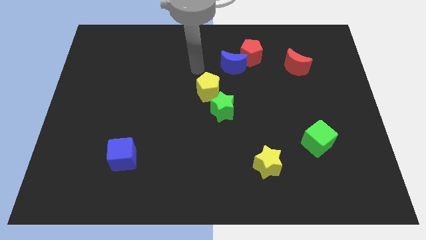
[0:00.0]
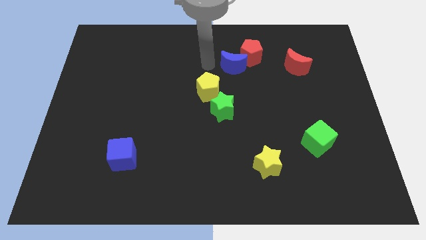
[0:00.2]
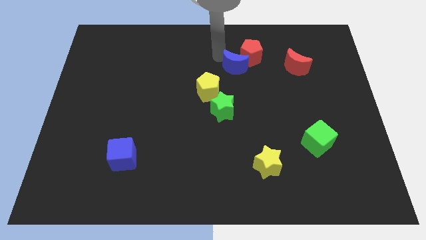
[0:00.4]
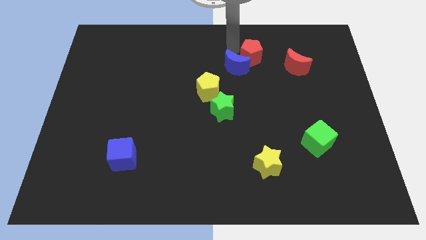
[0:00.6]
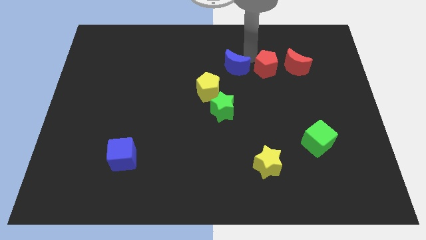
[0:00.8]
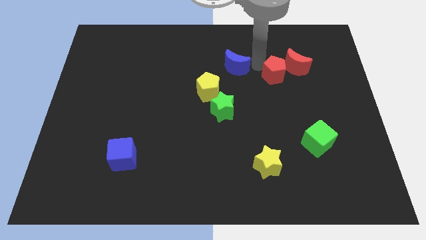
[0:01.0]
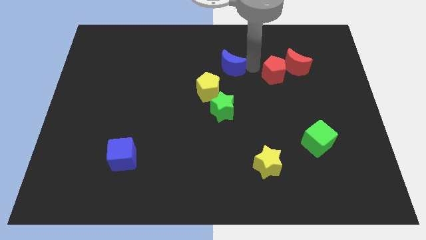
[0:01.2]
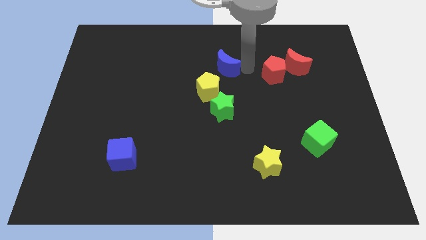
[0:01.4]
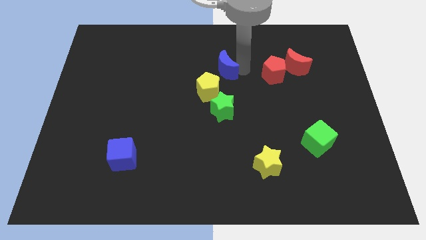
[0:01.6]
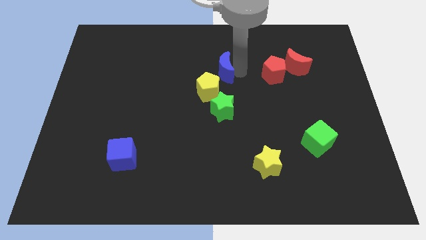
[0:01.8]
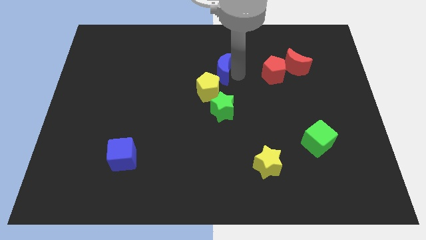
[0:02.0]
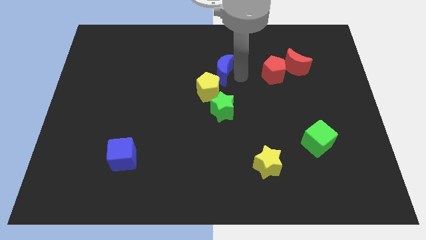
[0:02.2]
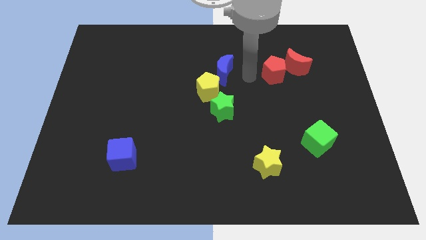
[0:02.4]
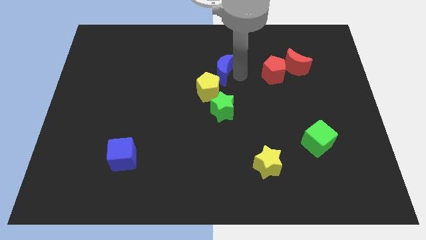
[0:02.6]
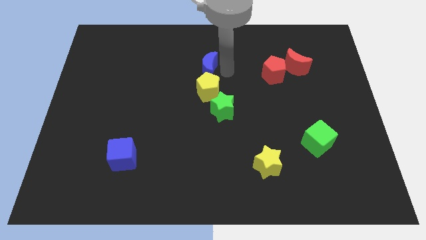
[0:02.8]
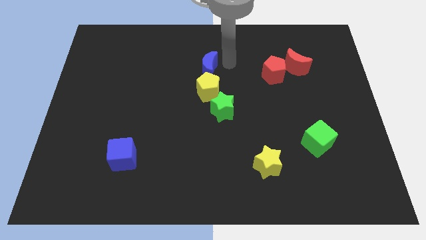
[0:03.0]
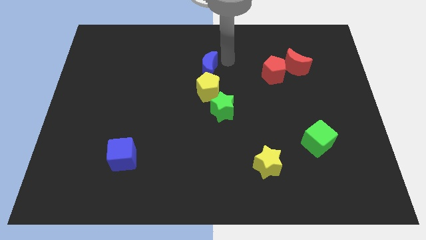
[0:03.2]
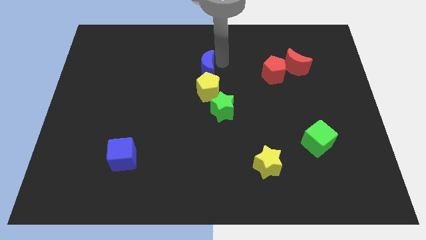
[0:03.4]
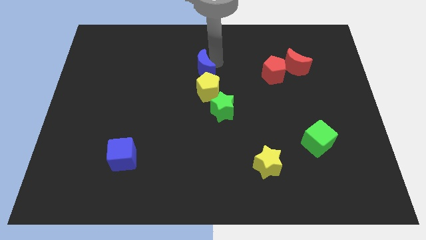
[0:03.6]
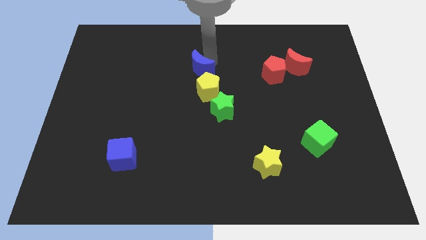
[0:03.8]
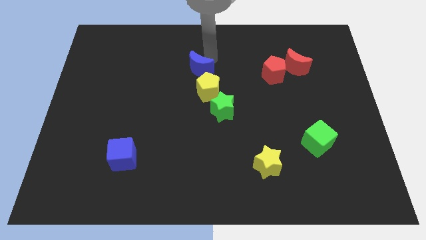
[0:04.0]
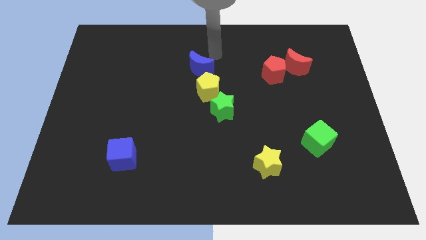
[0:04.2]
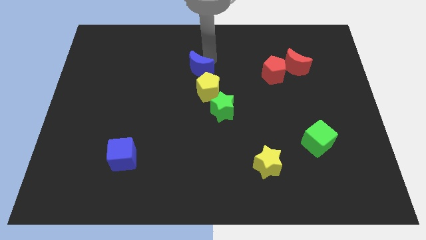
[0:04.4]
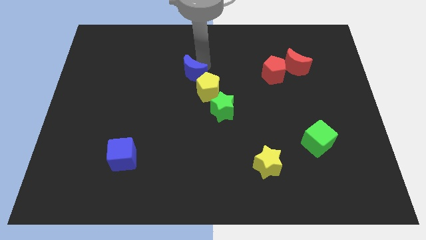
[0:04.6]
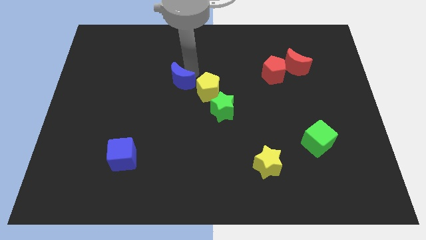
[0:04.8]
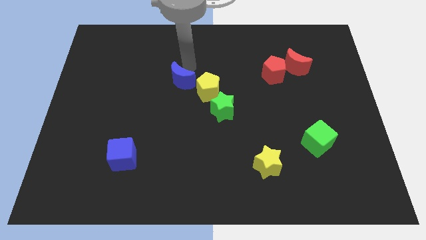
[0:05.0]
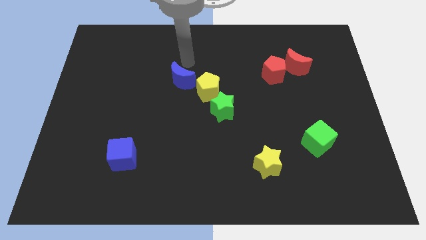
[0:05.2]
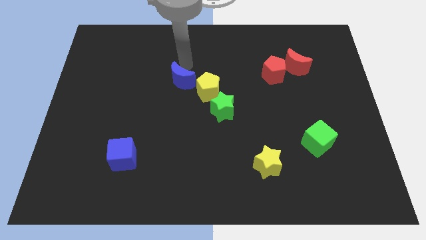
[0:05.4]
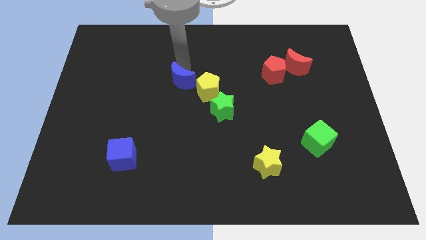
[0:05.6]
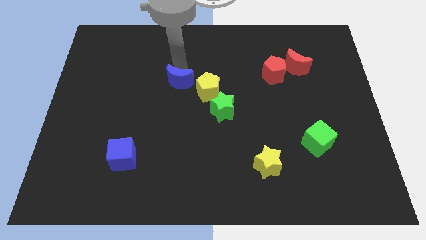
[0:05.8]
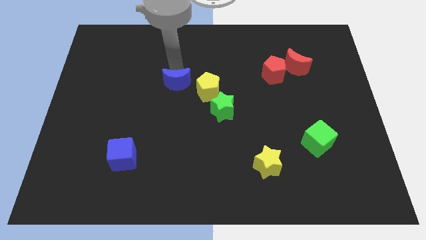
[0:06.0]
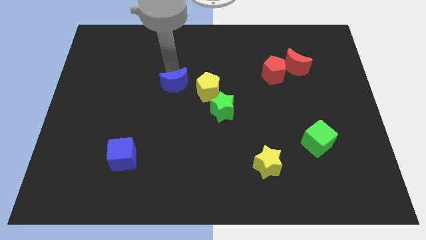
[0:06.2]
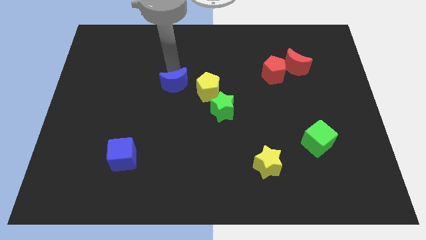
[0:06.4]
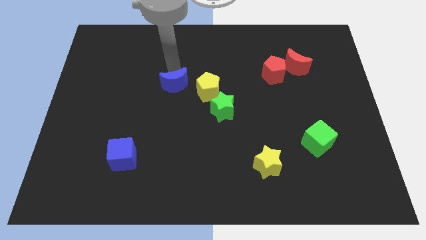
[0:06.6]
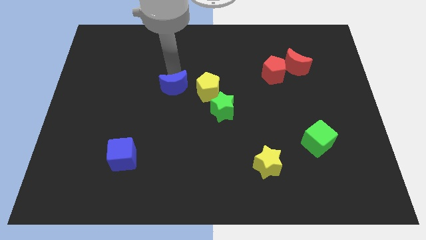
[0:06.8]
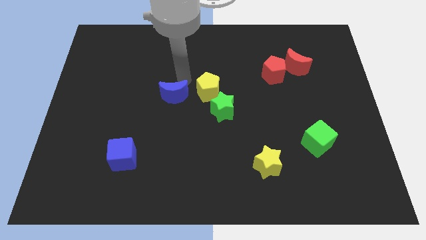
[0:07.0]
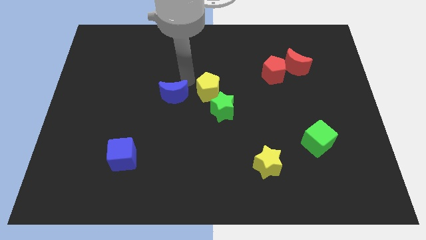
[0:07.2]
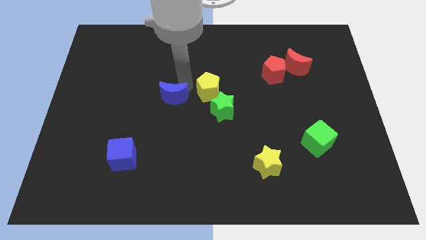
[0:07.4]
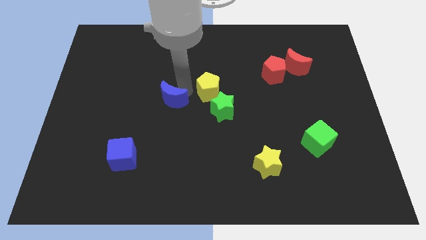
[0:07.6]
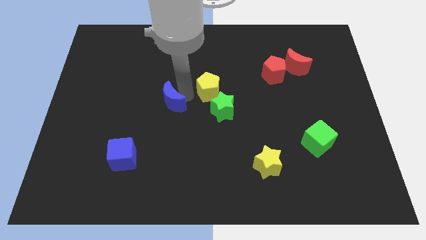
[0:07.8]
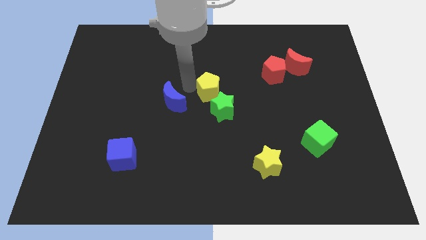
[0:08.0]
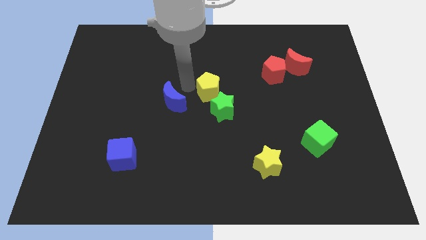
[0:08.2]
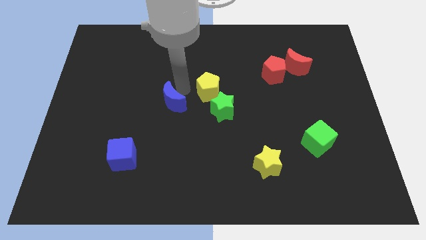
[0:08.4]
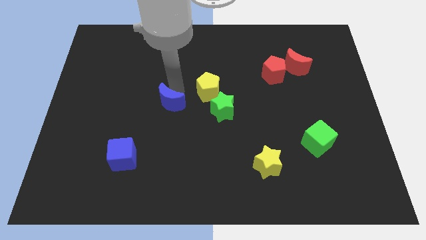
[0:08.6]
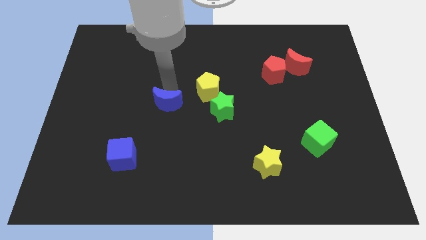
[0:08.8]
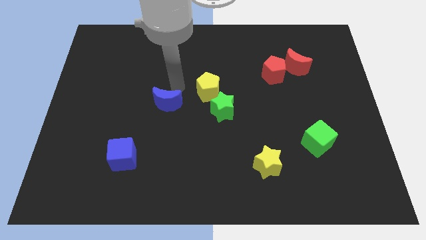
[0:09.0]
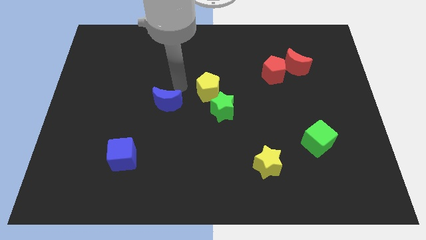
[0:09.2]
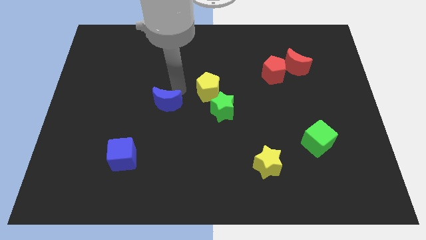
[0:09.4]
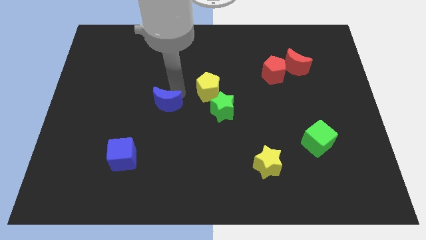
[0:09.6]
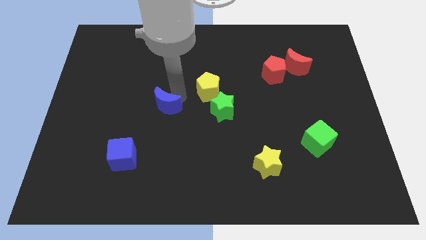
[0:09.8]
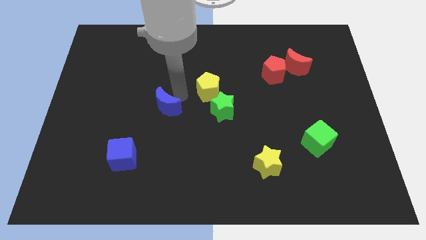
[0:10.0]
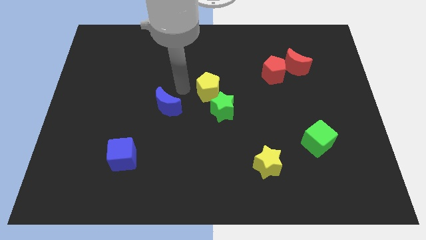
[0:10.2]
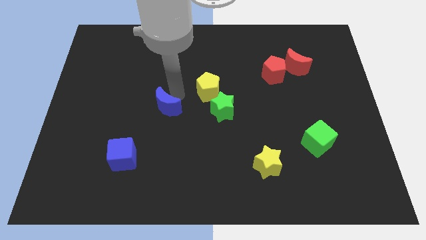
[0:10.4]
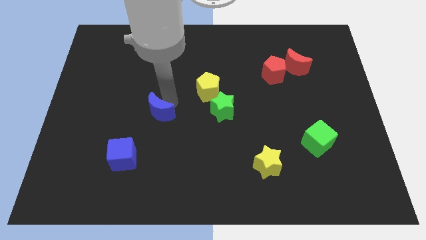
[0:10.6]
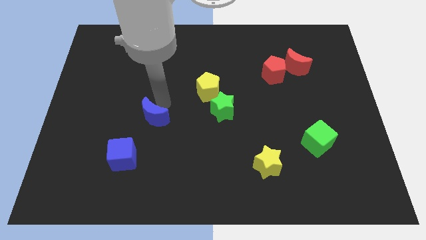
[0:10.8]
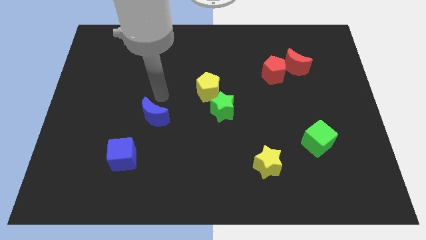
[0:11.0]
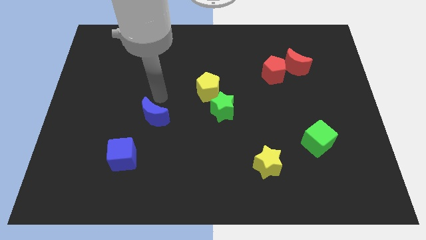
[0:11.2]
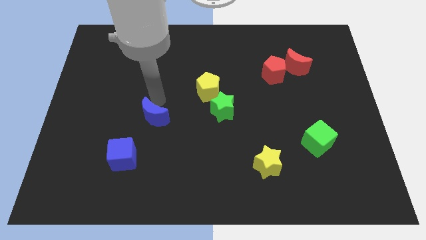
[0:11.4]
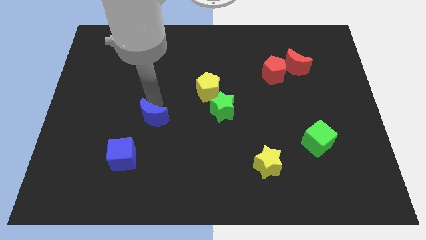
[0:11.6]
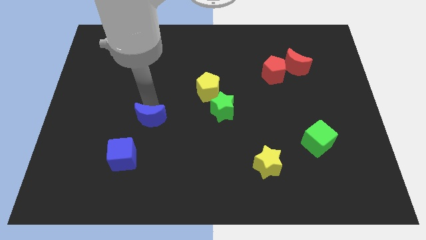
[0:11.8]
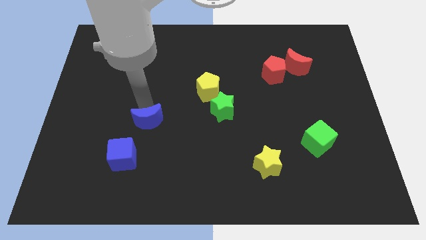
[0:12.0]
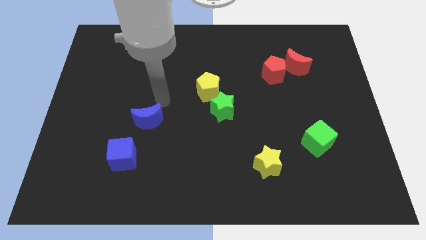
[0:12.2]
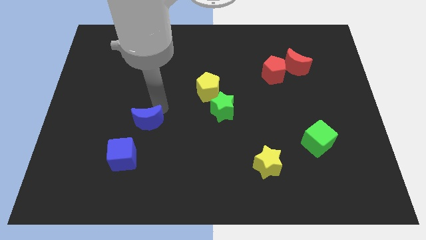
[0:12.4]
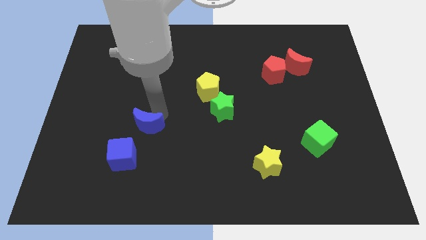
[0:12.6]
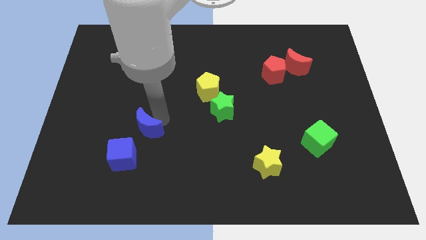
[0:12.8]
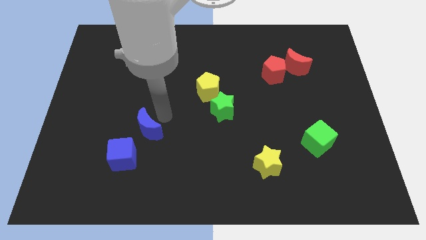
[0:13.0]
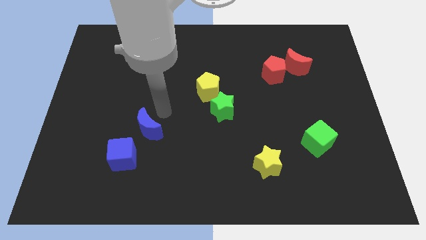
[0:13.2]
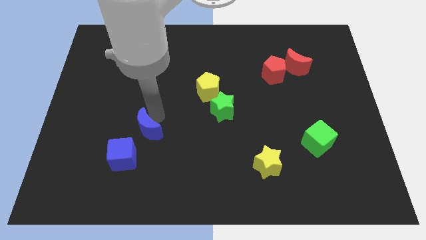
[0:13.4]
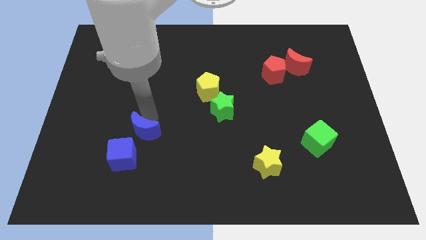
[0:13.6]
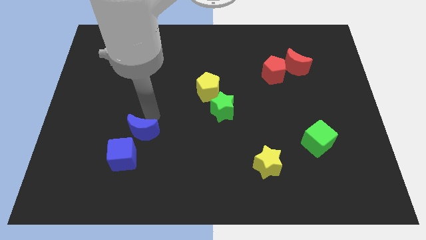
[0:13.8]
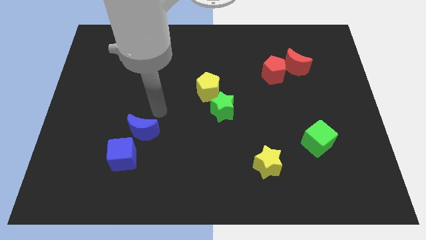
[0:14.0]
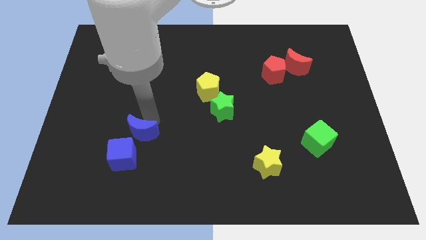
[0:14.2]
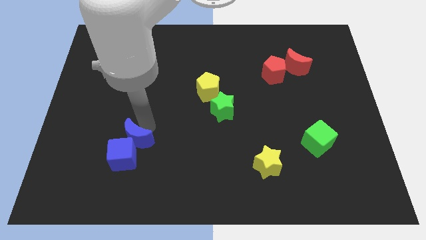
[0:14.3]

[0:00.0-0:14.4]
push the blue moon close to the blue cube
